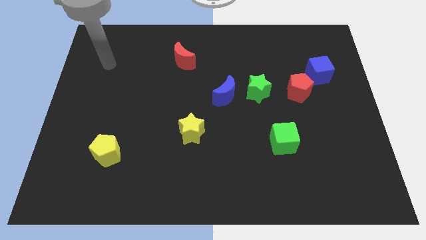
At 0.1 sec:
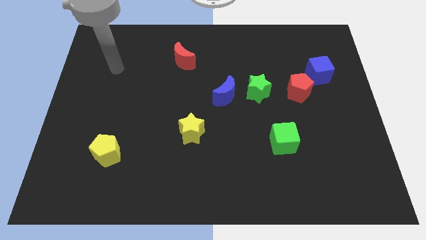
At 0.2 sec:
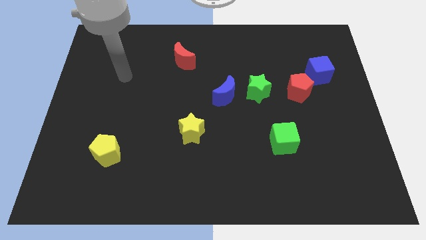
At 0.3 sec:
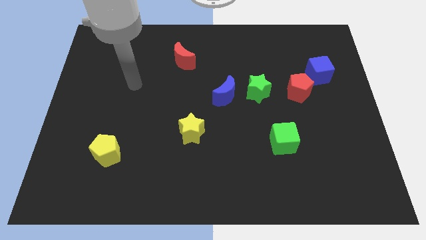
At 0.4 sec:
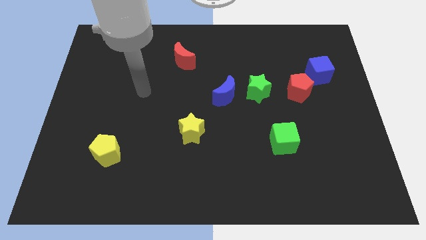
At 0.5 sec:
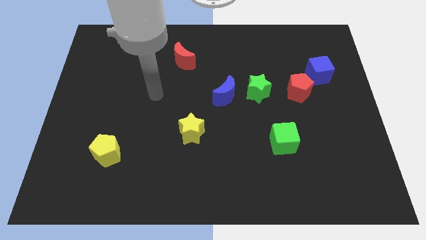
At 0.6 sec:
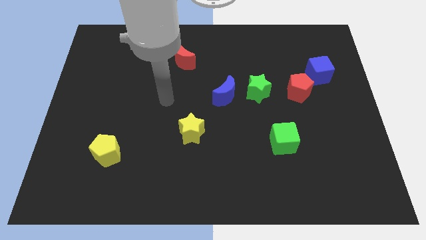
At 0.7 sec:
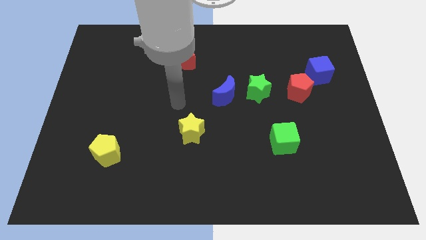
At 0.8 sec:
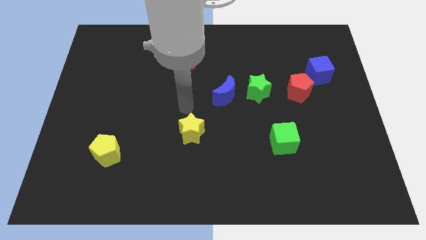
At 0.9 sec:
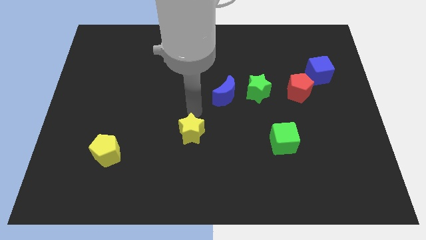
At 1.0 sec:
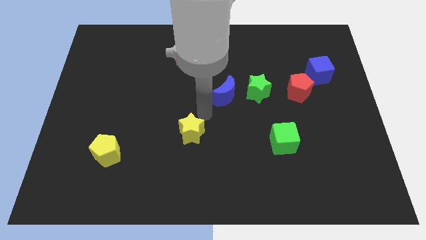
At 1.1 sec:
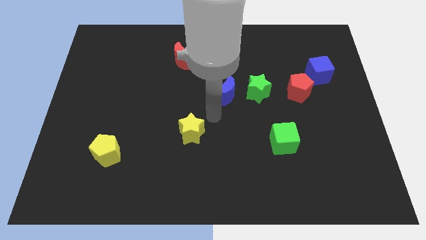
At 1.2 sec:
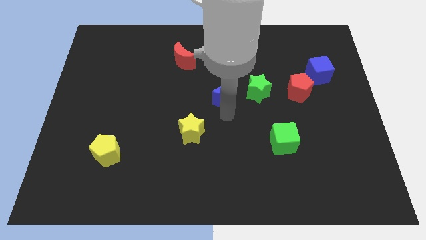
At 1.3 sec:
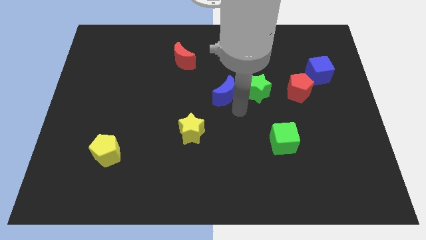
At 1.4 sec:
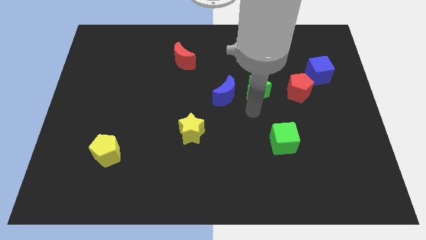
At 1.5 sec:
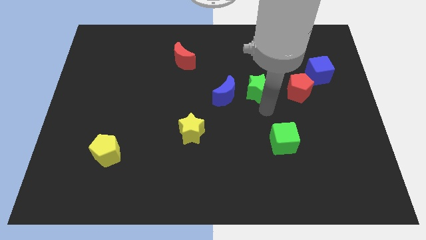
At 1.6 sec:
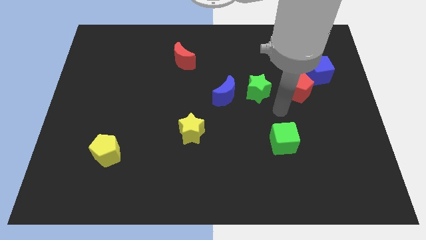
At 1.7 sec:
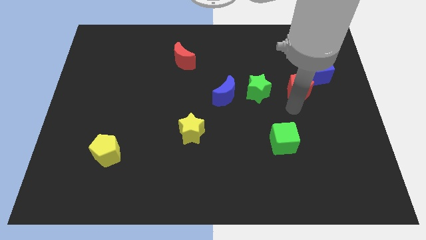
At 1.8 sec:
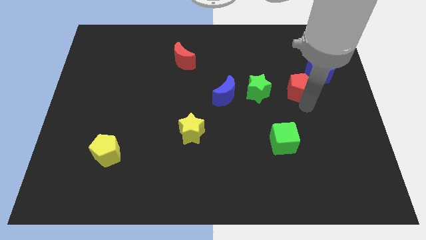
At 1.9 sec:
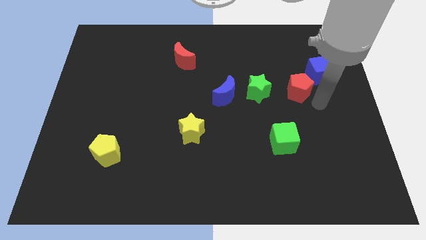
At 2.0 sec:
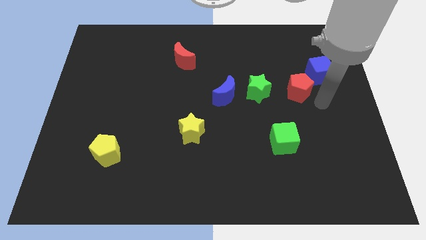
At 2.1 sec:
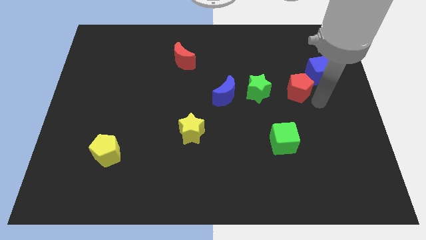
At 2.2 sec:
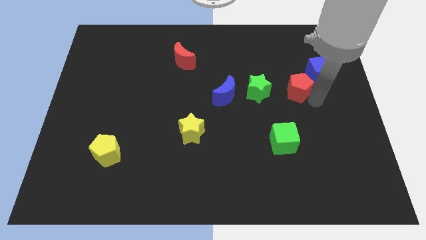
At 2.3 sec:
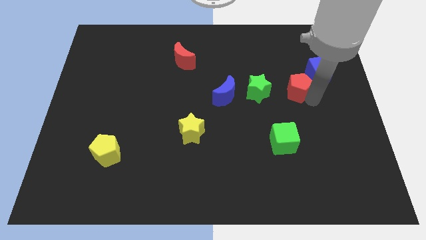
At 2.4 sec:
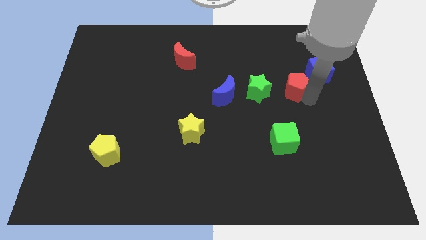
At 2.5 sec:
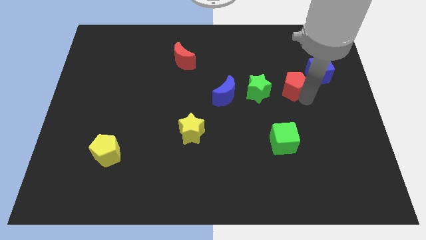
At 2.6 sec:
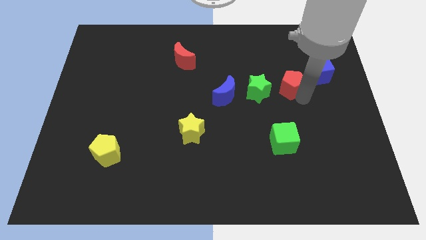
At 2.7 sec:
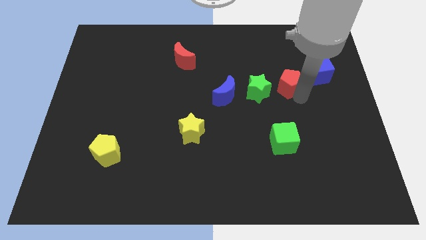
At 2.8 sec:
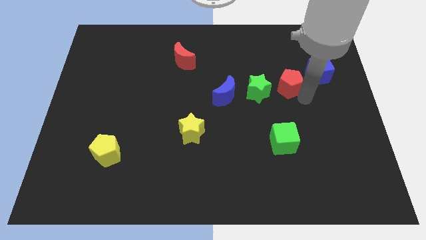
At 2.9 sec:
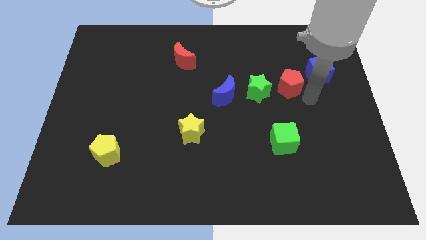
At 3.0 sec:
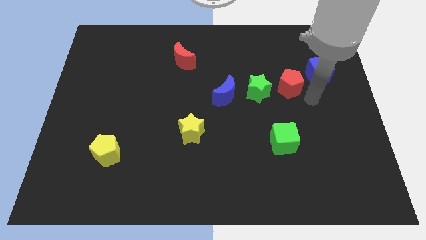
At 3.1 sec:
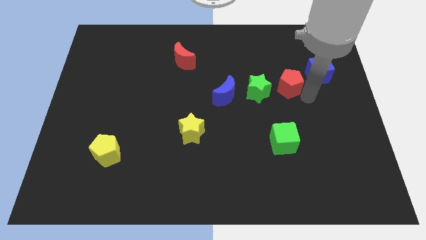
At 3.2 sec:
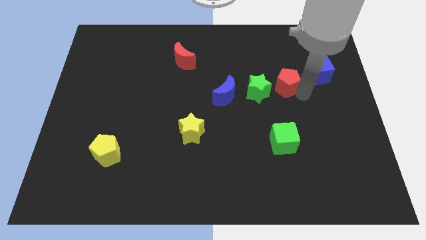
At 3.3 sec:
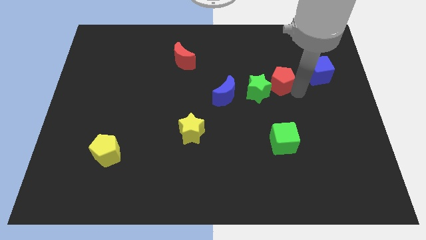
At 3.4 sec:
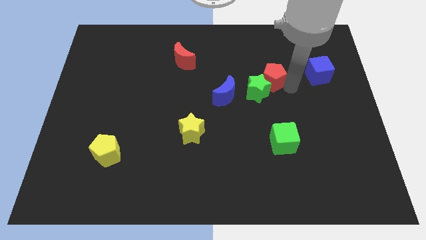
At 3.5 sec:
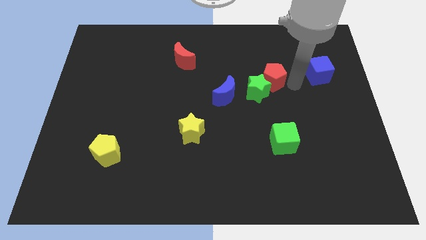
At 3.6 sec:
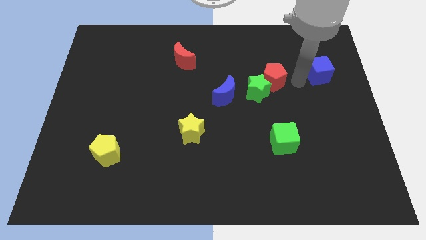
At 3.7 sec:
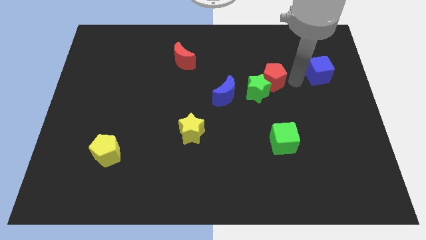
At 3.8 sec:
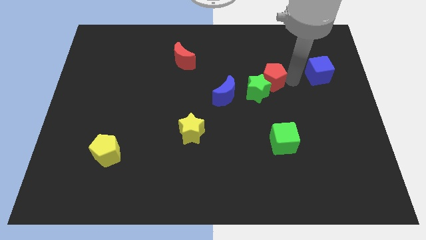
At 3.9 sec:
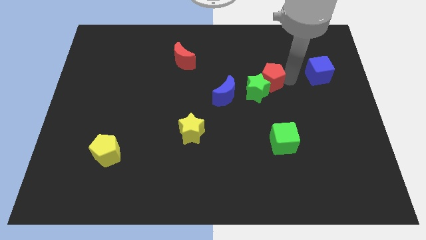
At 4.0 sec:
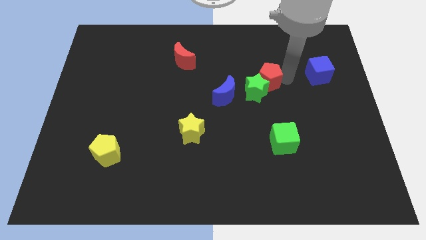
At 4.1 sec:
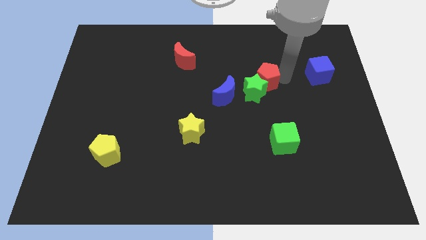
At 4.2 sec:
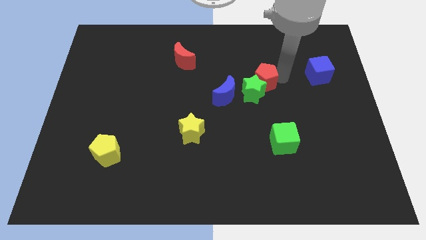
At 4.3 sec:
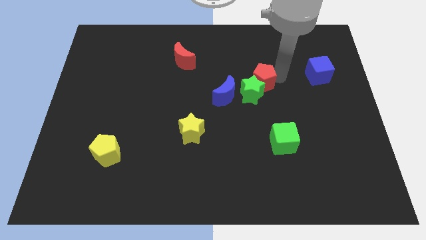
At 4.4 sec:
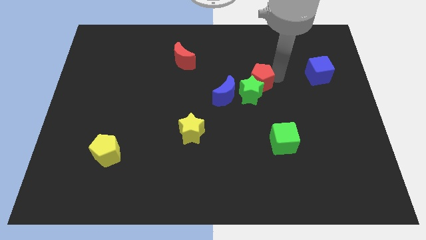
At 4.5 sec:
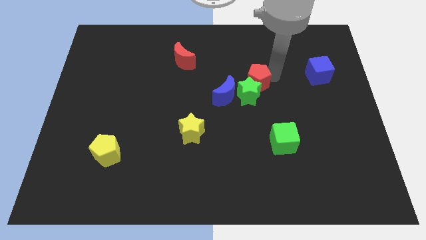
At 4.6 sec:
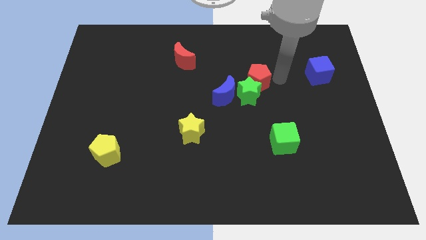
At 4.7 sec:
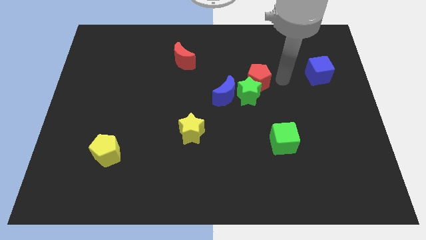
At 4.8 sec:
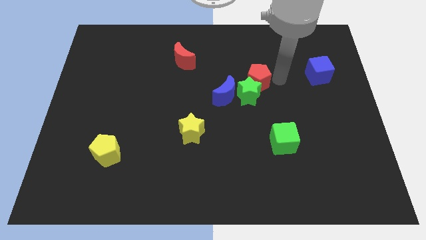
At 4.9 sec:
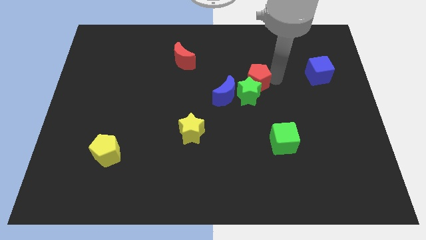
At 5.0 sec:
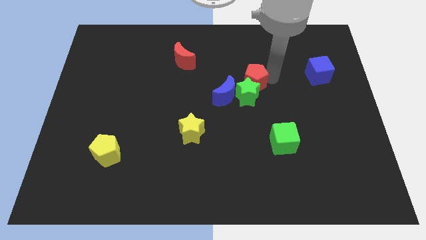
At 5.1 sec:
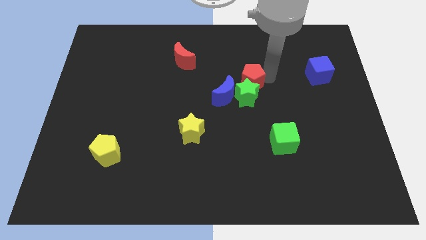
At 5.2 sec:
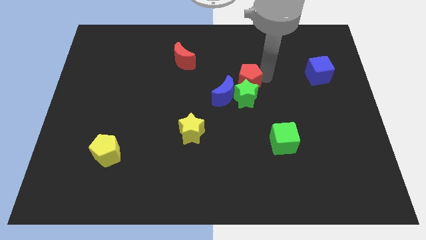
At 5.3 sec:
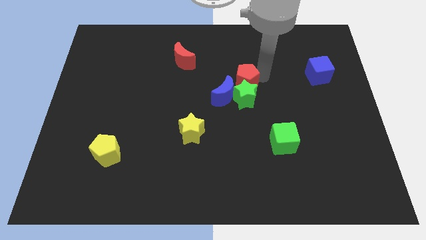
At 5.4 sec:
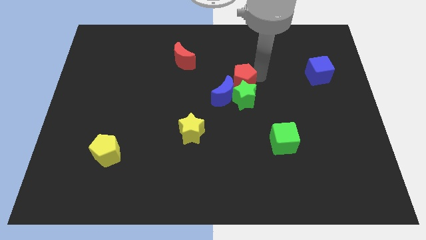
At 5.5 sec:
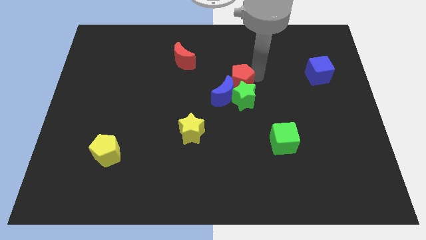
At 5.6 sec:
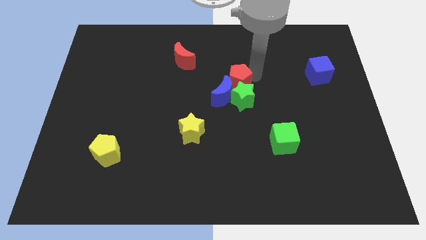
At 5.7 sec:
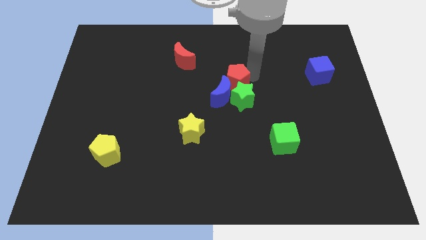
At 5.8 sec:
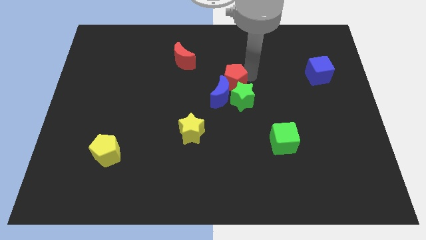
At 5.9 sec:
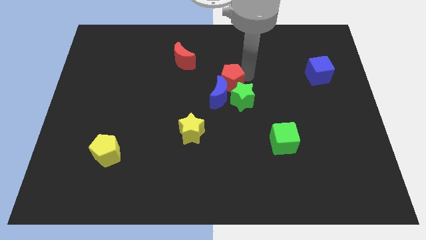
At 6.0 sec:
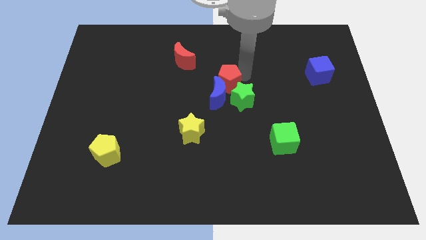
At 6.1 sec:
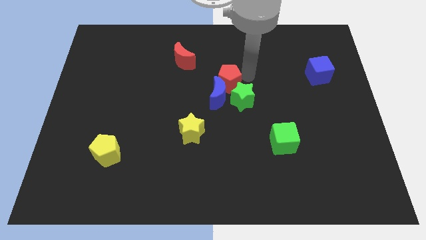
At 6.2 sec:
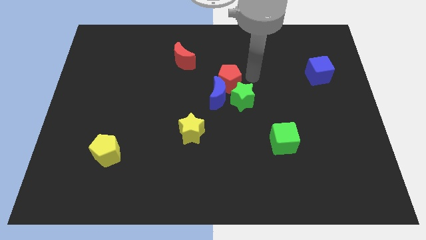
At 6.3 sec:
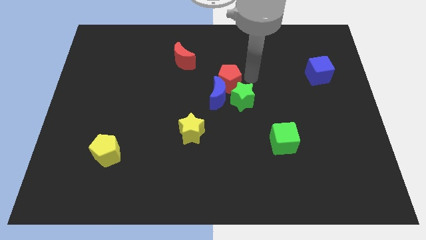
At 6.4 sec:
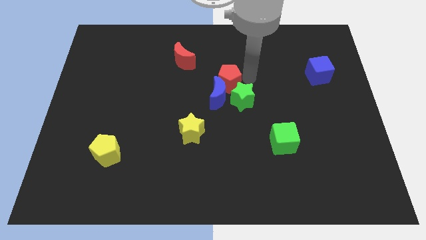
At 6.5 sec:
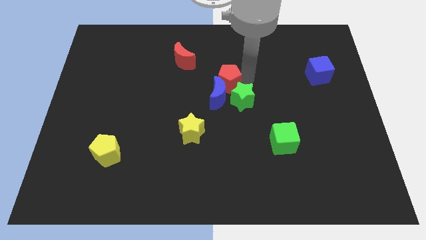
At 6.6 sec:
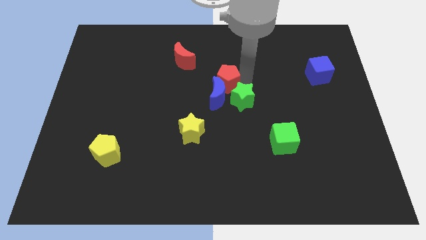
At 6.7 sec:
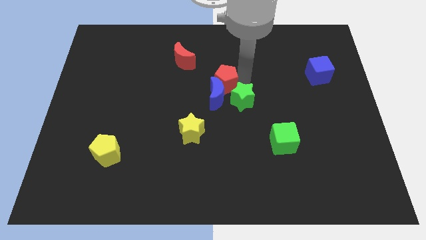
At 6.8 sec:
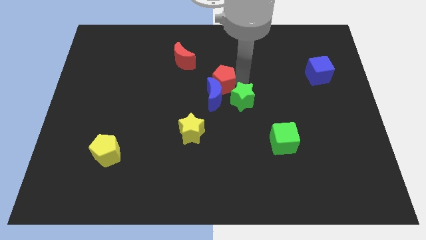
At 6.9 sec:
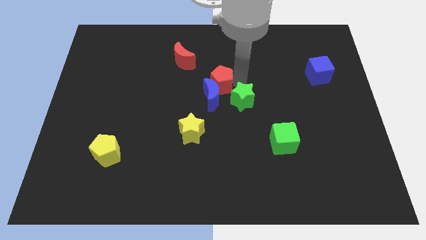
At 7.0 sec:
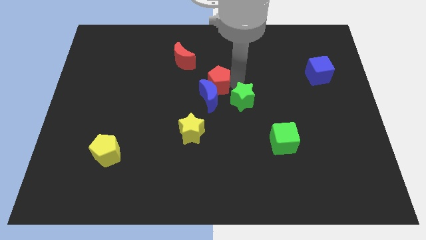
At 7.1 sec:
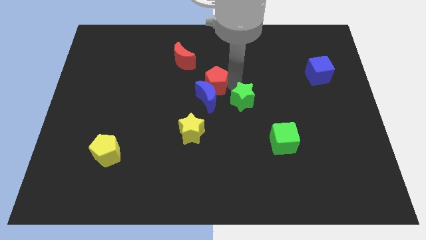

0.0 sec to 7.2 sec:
push the red pentagon left

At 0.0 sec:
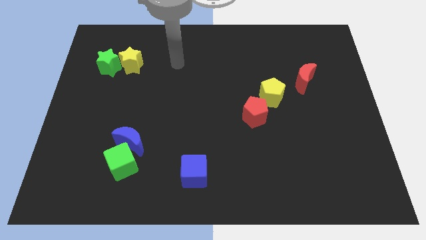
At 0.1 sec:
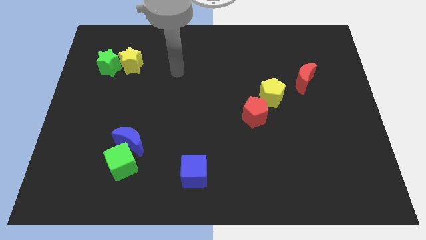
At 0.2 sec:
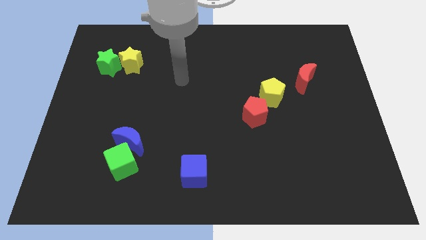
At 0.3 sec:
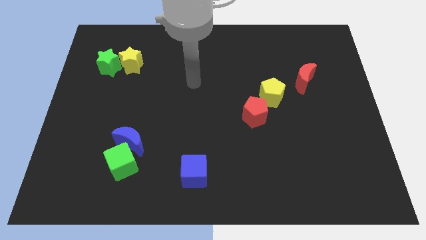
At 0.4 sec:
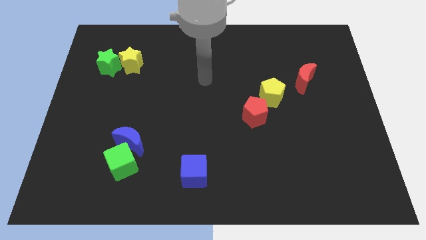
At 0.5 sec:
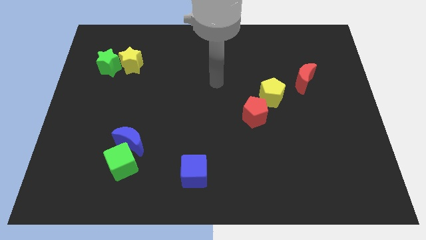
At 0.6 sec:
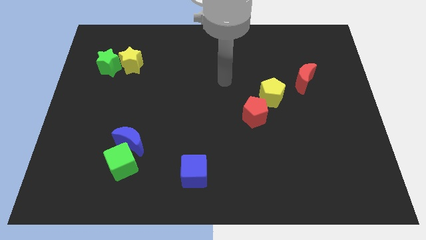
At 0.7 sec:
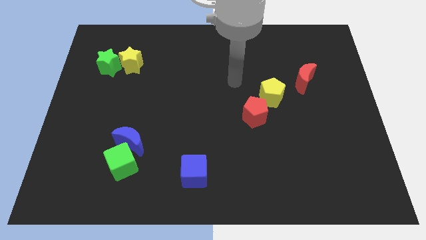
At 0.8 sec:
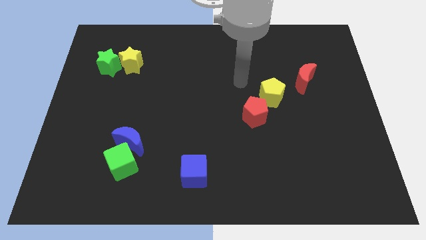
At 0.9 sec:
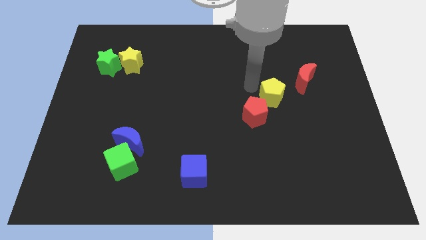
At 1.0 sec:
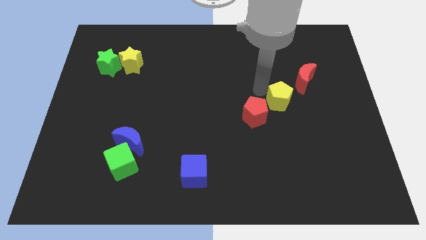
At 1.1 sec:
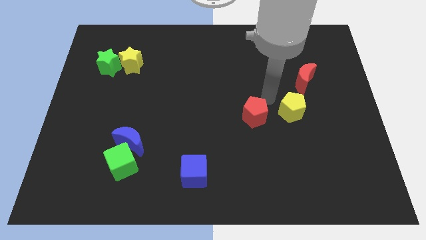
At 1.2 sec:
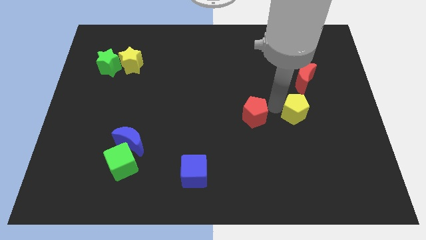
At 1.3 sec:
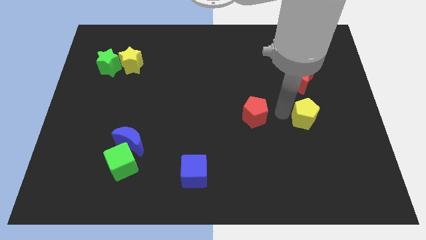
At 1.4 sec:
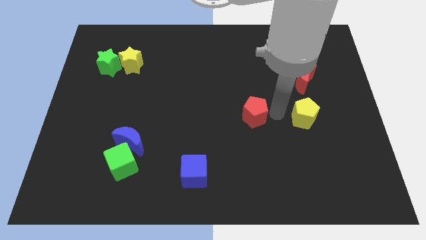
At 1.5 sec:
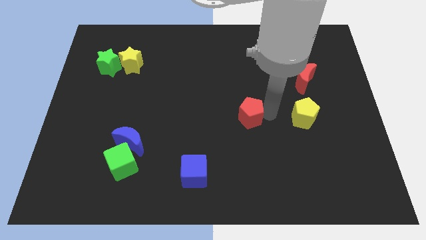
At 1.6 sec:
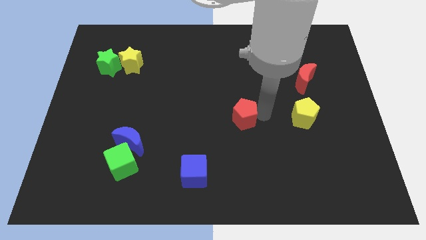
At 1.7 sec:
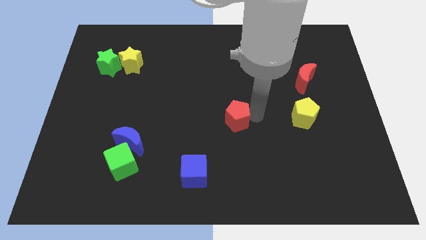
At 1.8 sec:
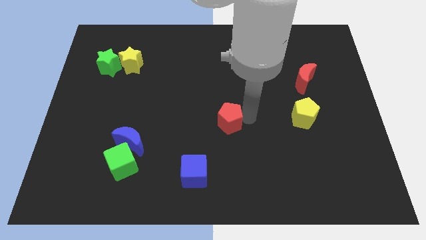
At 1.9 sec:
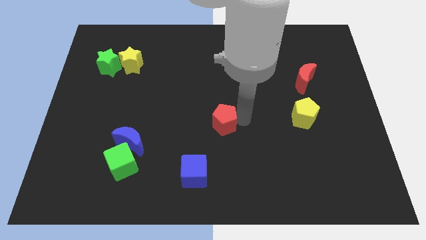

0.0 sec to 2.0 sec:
slightly push the red pentagon to the left
